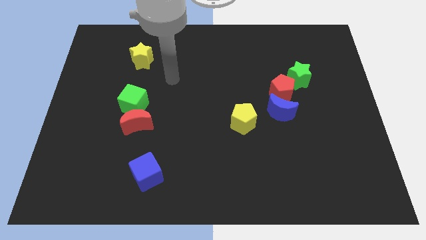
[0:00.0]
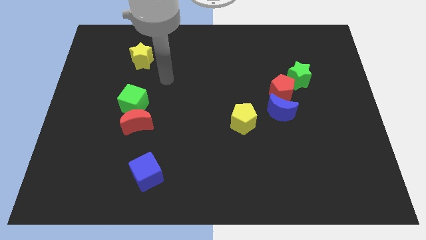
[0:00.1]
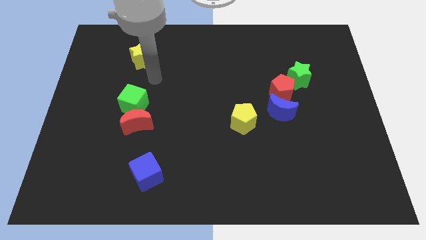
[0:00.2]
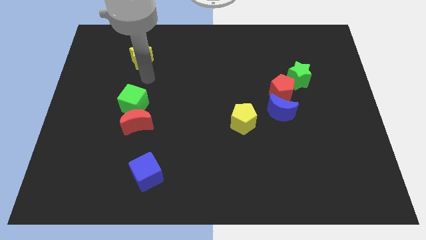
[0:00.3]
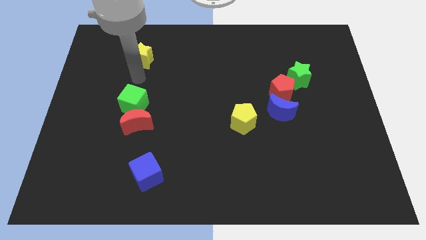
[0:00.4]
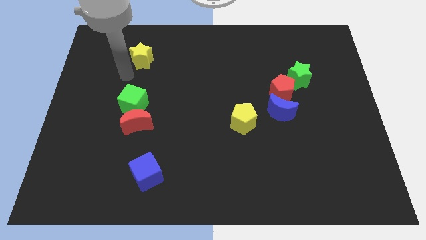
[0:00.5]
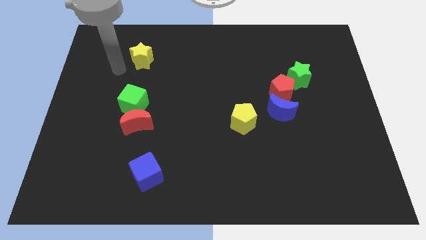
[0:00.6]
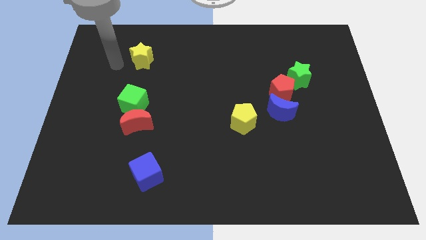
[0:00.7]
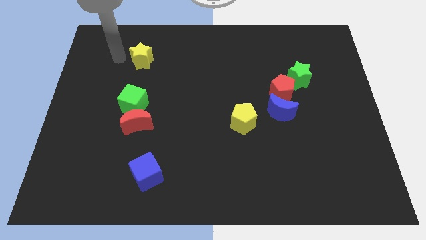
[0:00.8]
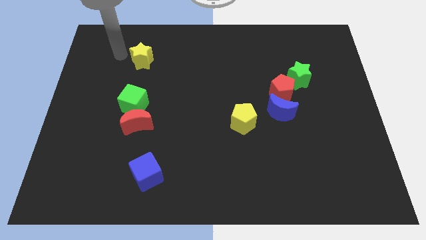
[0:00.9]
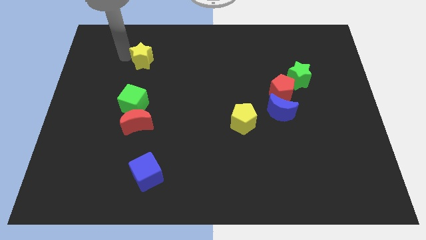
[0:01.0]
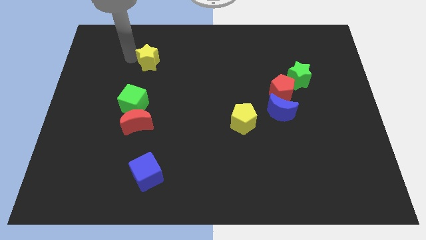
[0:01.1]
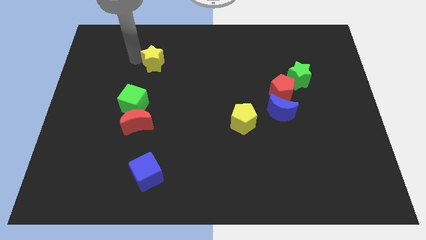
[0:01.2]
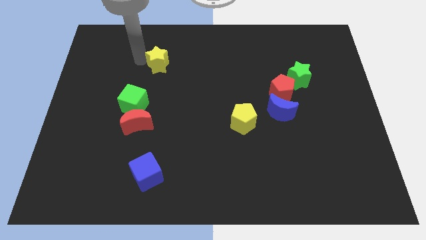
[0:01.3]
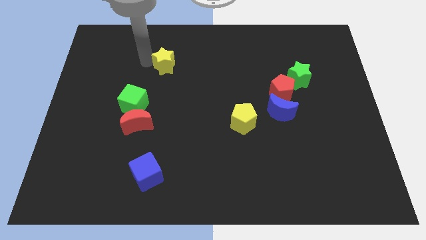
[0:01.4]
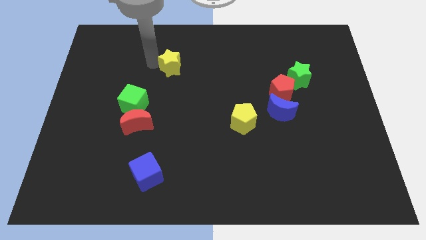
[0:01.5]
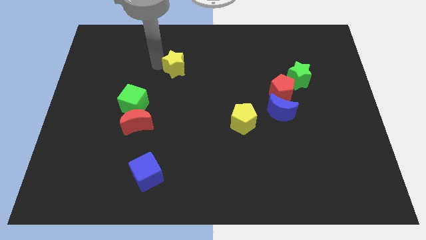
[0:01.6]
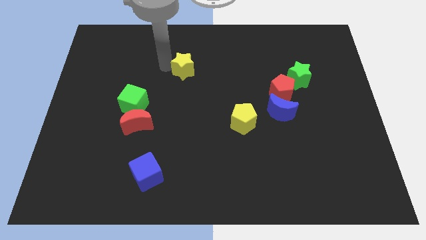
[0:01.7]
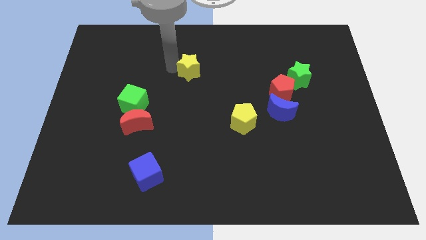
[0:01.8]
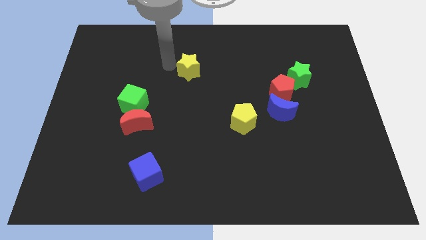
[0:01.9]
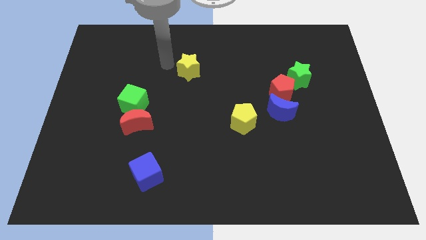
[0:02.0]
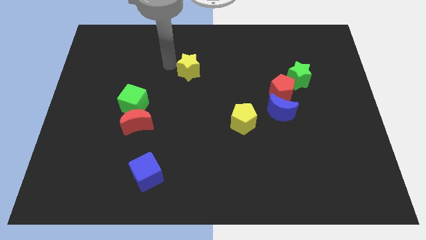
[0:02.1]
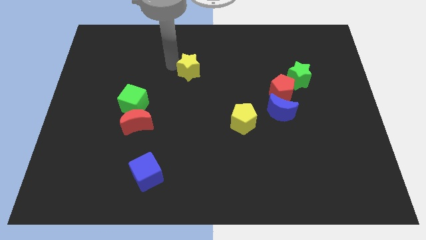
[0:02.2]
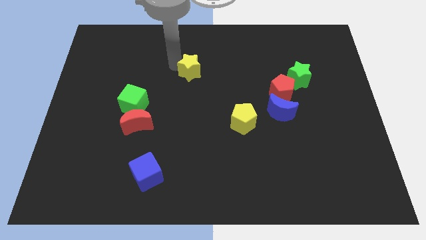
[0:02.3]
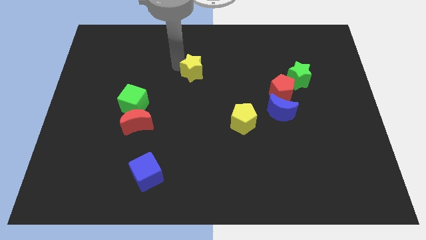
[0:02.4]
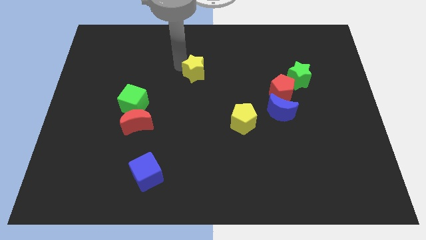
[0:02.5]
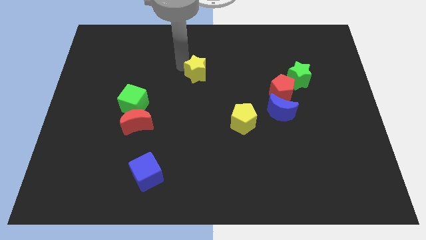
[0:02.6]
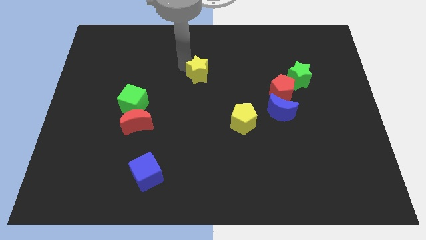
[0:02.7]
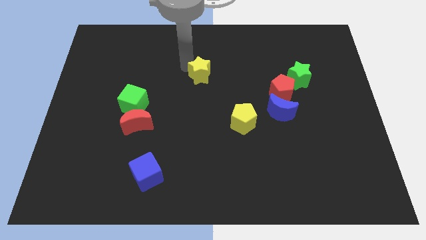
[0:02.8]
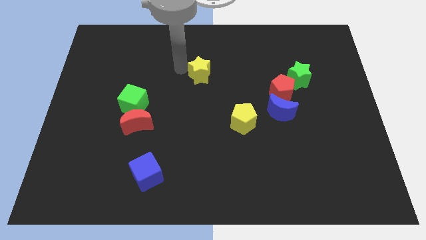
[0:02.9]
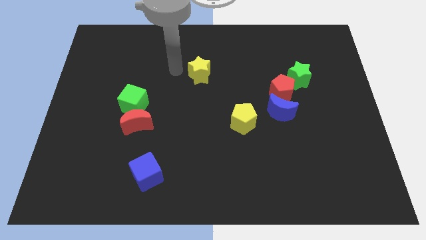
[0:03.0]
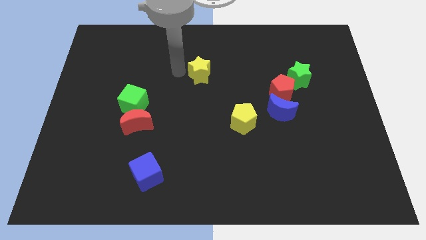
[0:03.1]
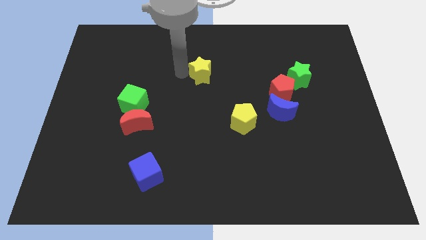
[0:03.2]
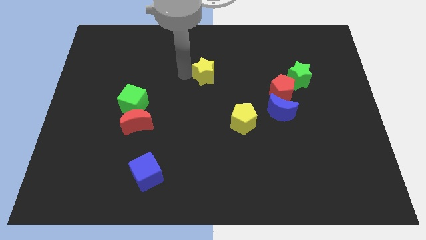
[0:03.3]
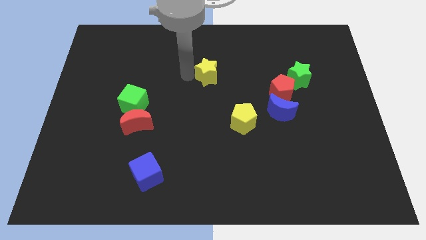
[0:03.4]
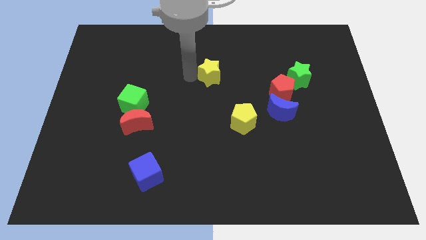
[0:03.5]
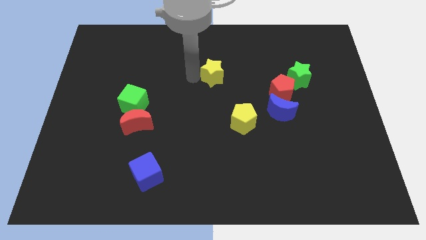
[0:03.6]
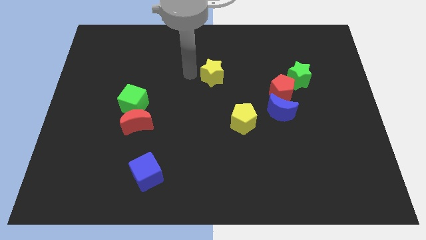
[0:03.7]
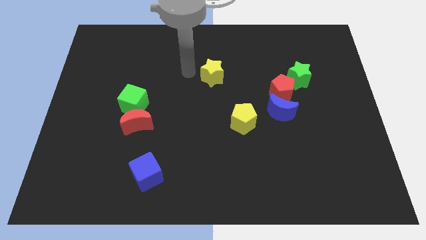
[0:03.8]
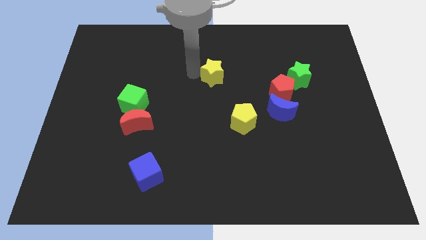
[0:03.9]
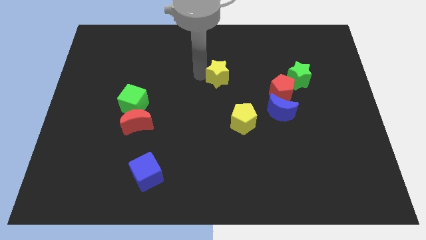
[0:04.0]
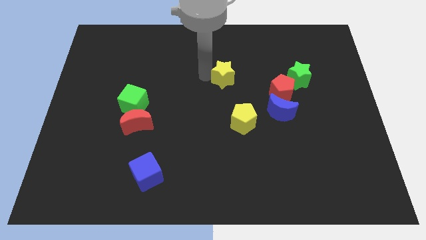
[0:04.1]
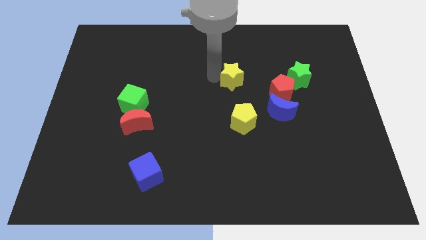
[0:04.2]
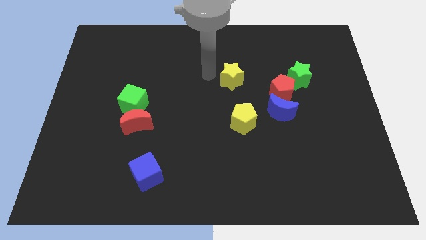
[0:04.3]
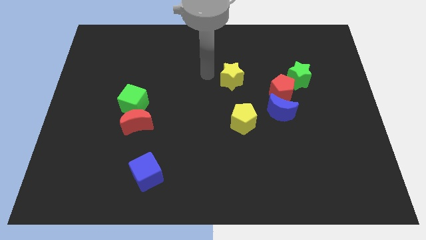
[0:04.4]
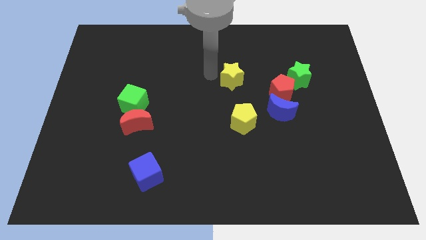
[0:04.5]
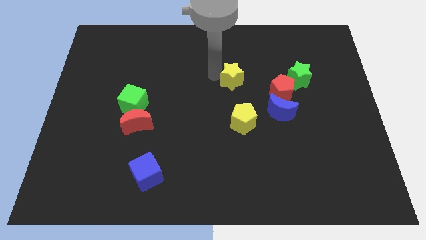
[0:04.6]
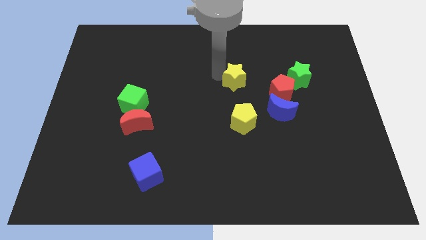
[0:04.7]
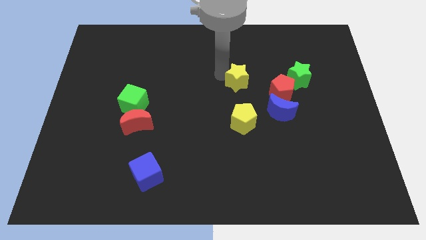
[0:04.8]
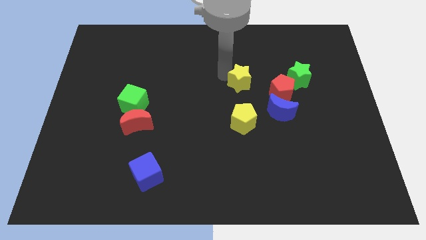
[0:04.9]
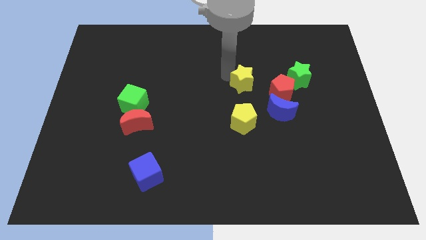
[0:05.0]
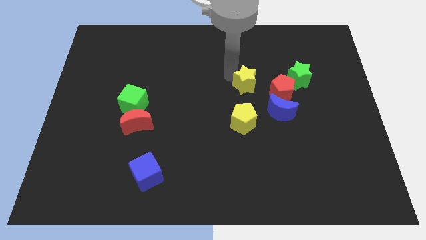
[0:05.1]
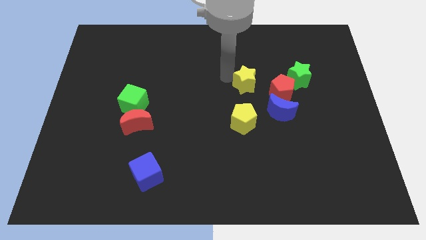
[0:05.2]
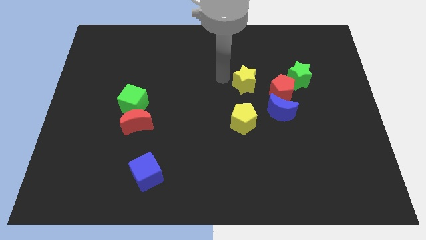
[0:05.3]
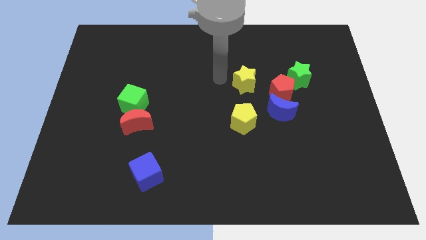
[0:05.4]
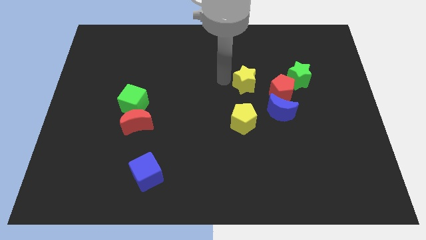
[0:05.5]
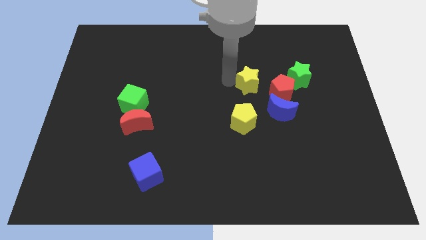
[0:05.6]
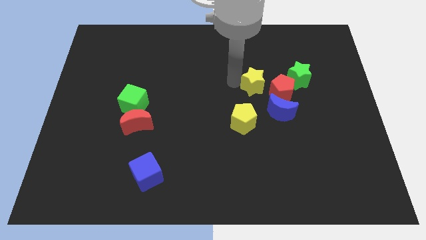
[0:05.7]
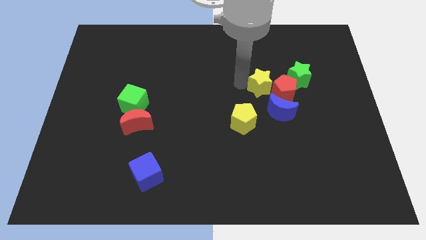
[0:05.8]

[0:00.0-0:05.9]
put the yellow star next to the red pentagon

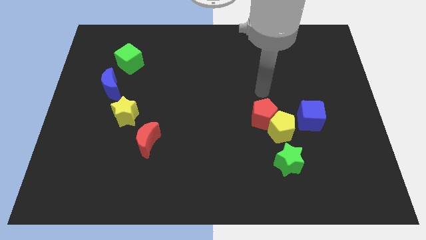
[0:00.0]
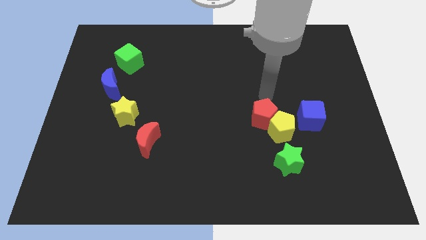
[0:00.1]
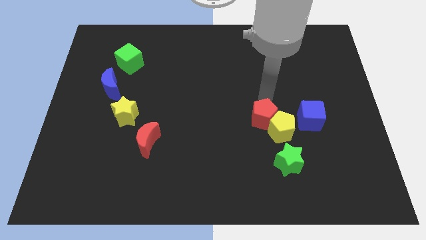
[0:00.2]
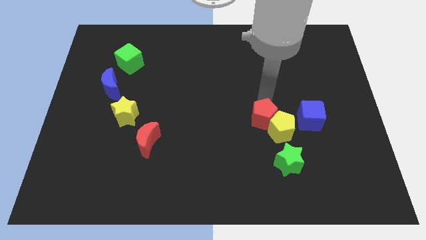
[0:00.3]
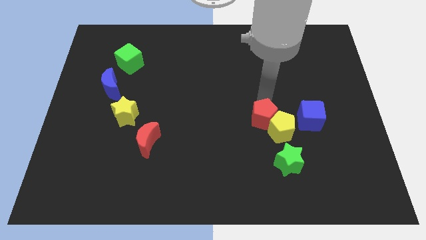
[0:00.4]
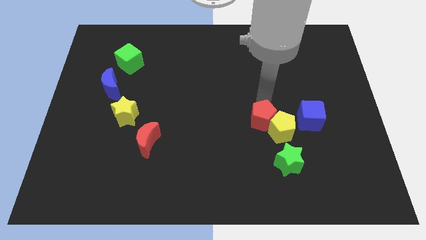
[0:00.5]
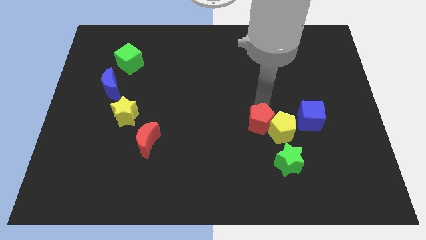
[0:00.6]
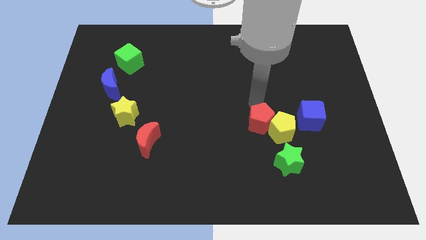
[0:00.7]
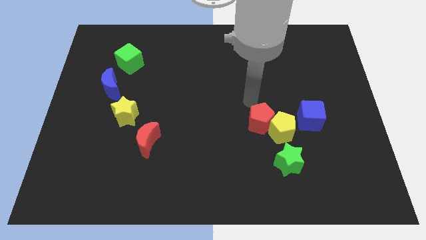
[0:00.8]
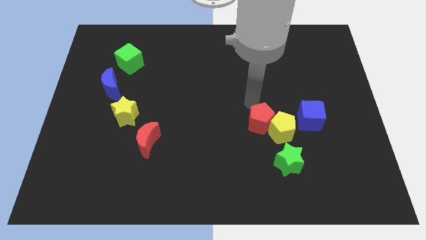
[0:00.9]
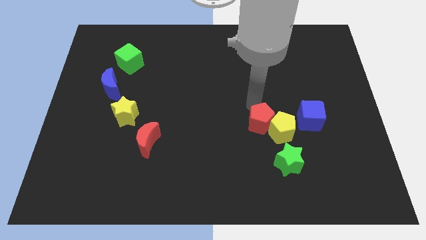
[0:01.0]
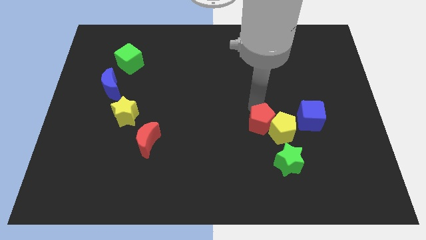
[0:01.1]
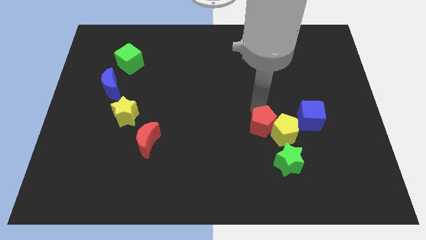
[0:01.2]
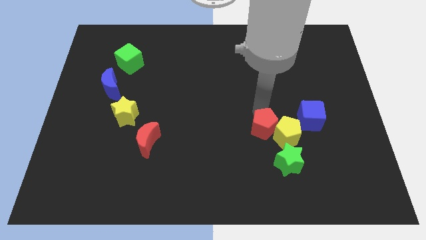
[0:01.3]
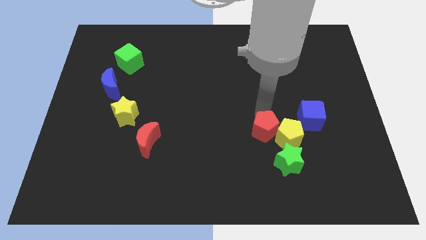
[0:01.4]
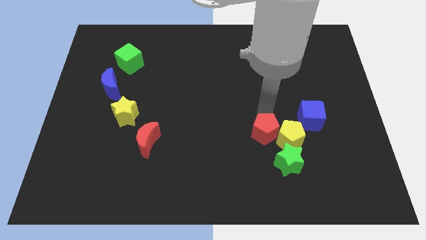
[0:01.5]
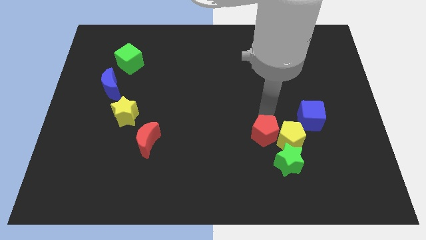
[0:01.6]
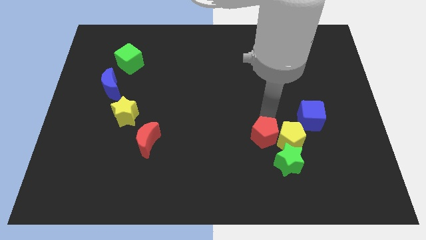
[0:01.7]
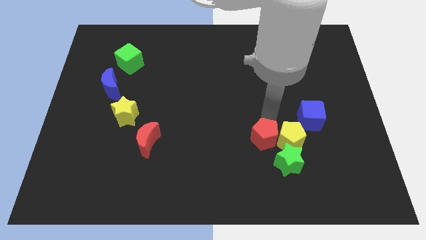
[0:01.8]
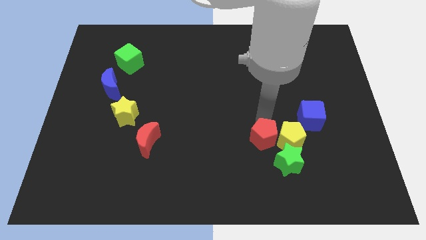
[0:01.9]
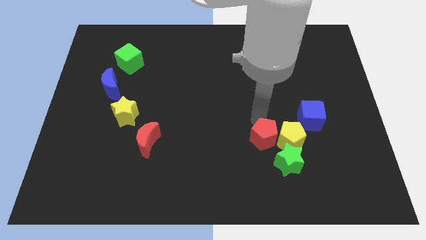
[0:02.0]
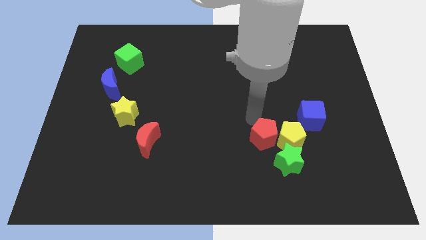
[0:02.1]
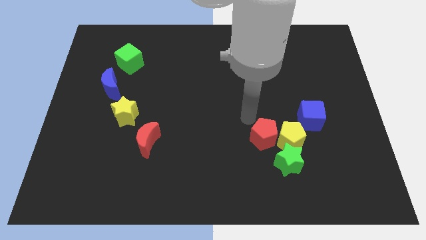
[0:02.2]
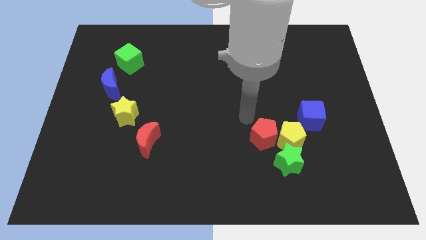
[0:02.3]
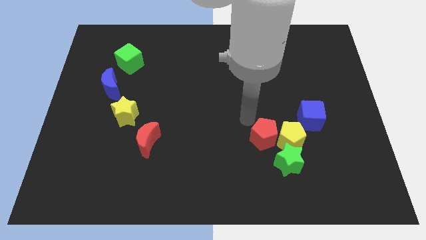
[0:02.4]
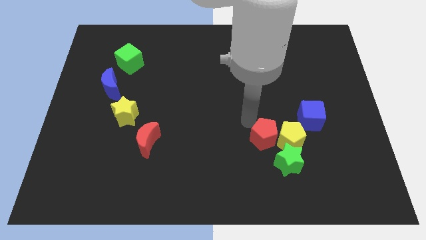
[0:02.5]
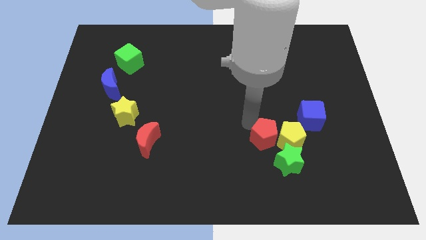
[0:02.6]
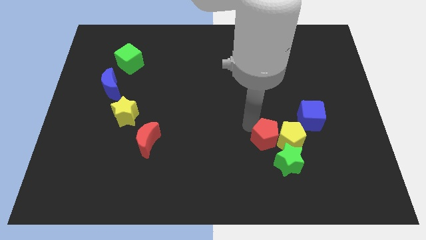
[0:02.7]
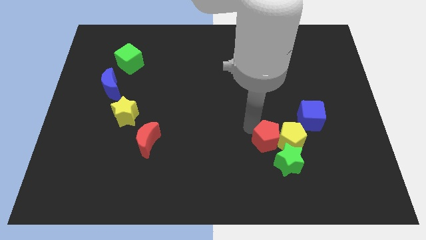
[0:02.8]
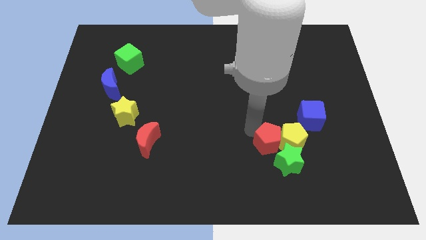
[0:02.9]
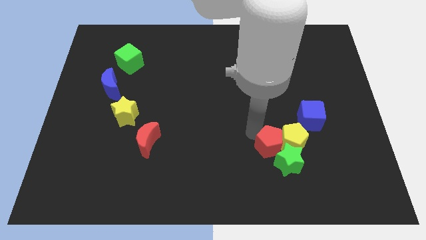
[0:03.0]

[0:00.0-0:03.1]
push the red pentagon towards the green star
